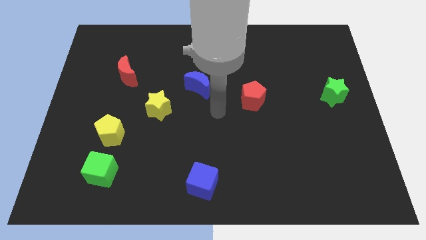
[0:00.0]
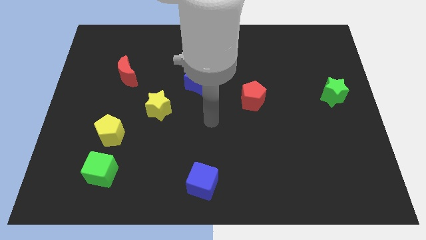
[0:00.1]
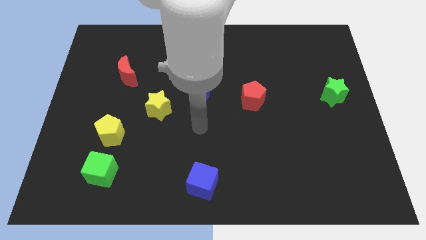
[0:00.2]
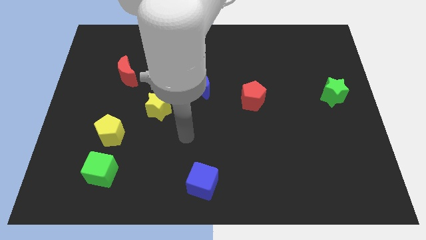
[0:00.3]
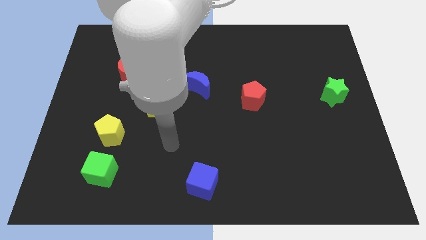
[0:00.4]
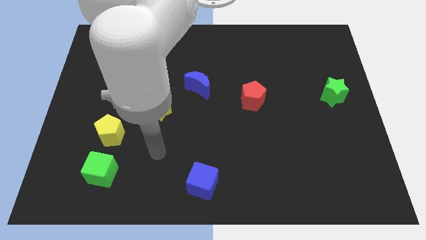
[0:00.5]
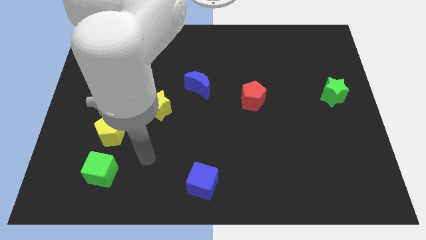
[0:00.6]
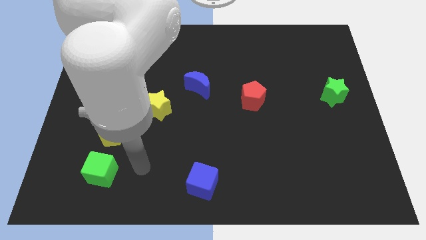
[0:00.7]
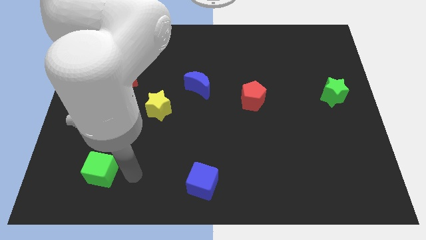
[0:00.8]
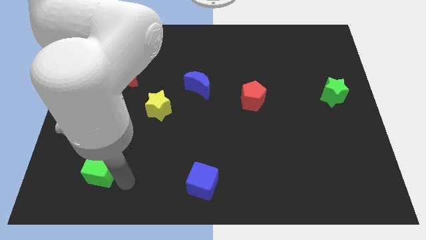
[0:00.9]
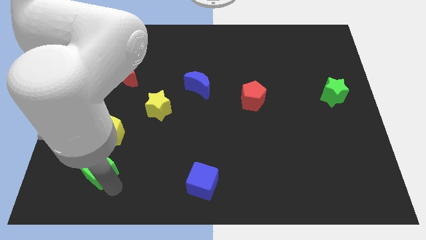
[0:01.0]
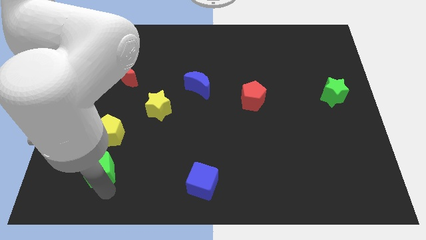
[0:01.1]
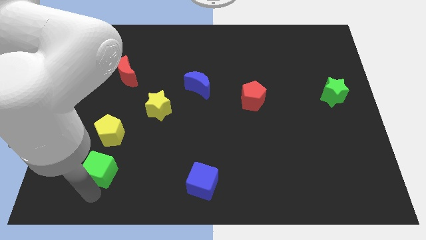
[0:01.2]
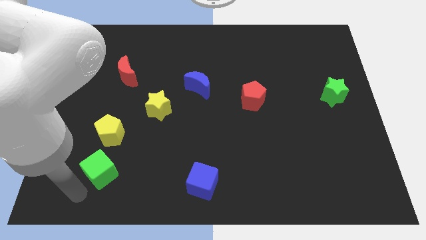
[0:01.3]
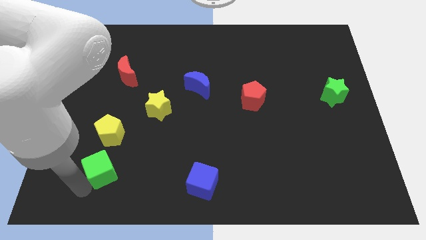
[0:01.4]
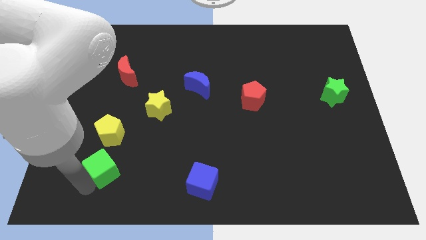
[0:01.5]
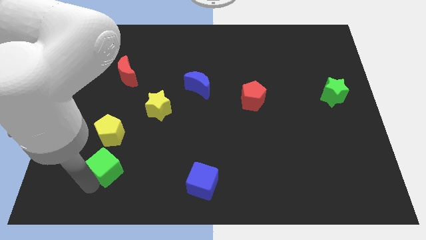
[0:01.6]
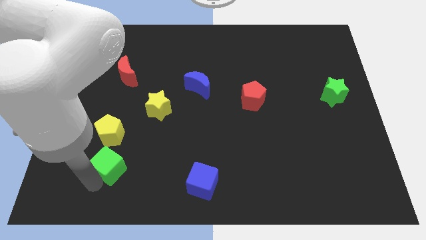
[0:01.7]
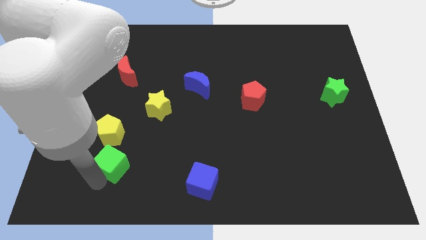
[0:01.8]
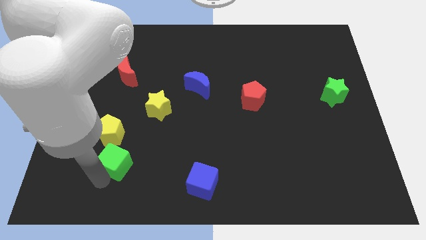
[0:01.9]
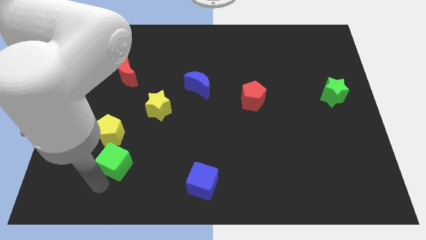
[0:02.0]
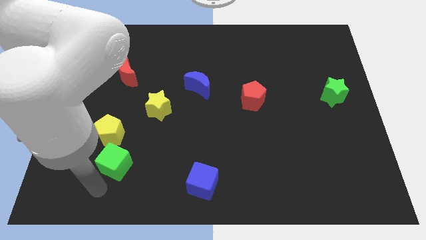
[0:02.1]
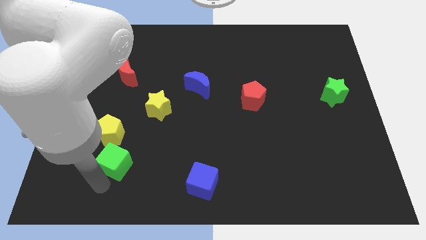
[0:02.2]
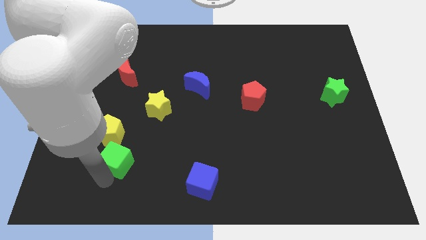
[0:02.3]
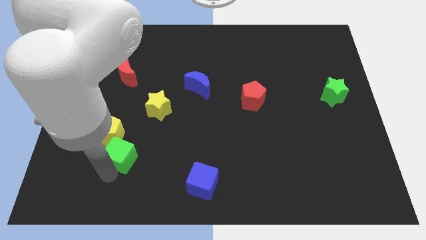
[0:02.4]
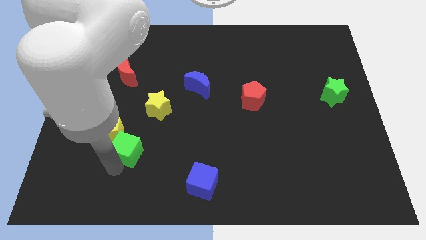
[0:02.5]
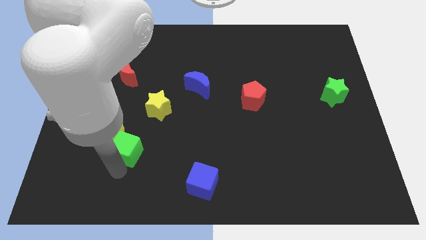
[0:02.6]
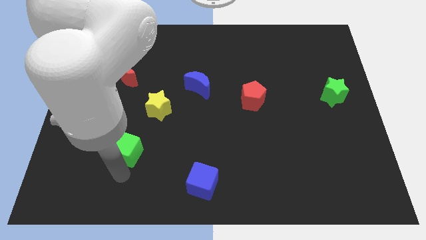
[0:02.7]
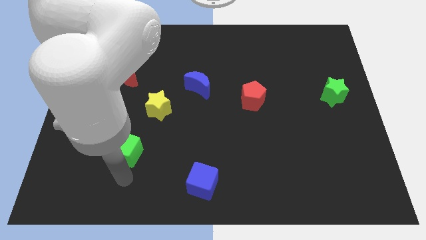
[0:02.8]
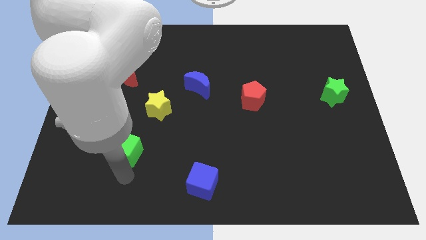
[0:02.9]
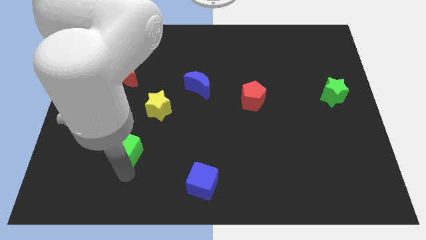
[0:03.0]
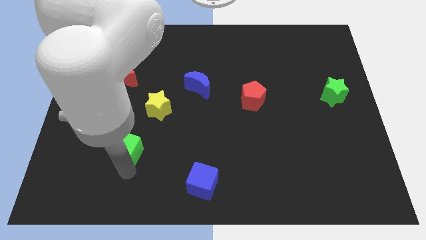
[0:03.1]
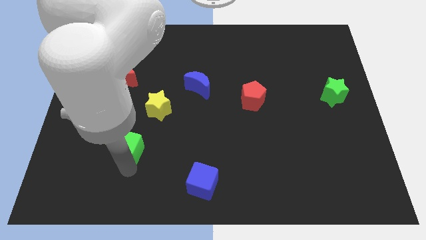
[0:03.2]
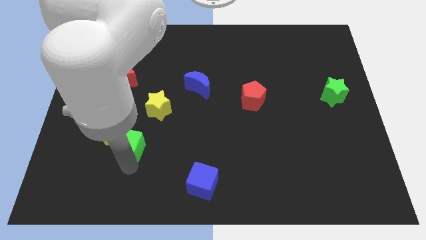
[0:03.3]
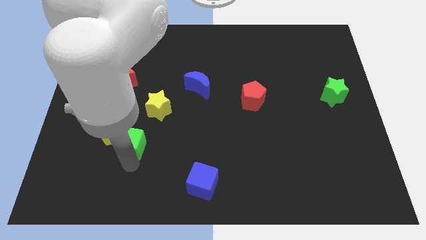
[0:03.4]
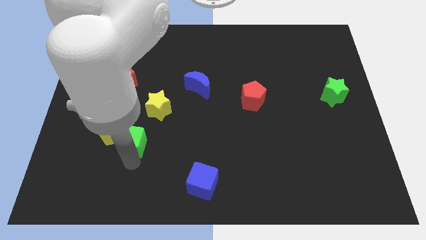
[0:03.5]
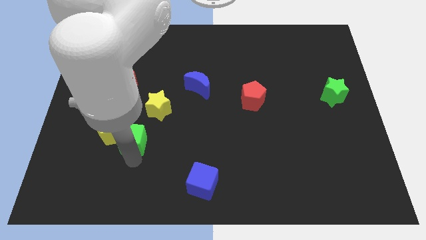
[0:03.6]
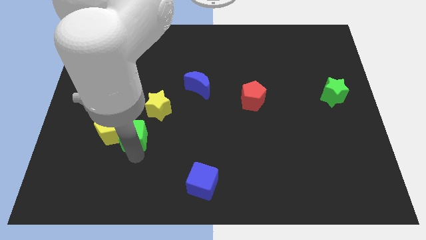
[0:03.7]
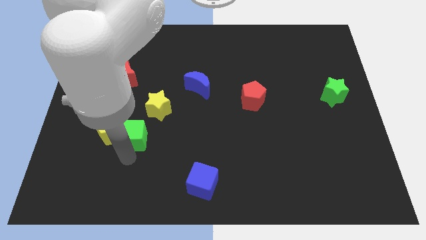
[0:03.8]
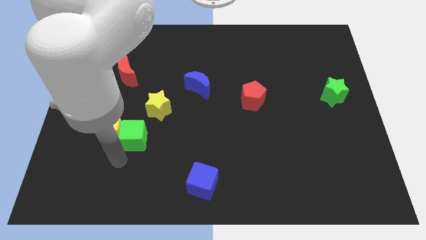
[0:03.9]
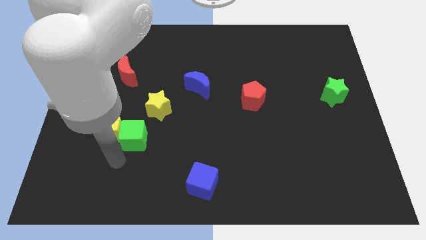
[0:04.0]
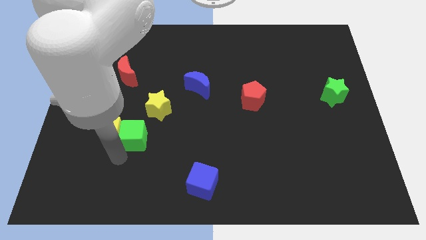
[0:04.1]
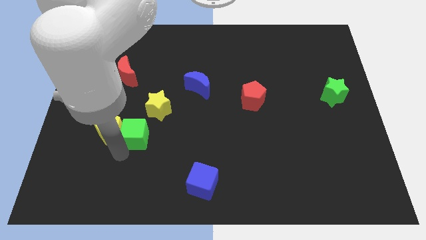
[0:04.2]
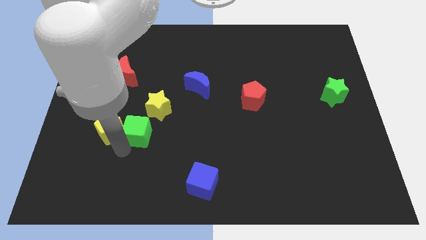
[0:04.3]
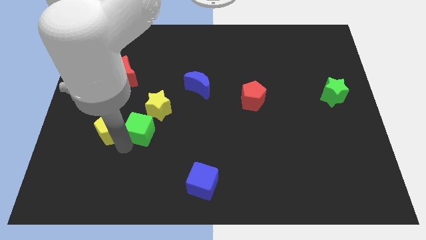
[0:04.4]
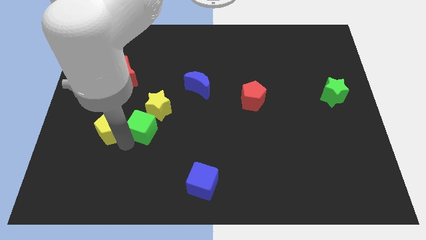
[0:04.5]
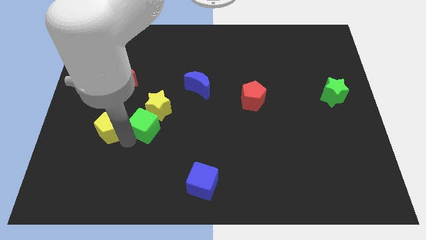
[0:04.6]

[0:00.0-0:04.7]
put the green cube towards the yellow star

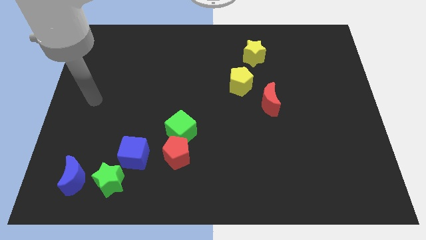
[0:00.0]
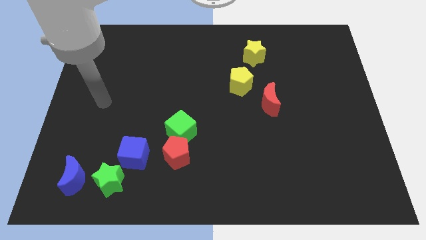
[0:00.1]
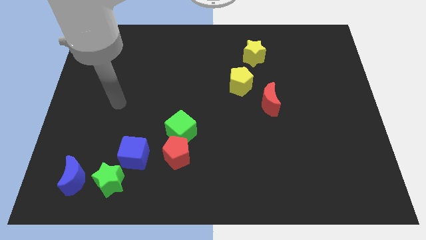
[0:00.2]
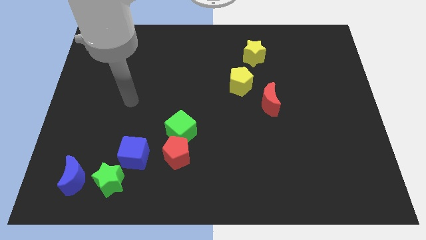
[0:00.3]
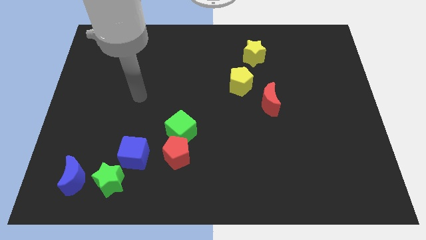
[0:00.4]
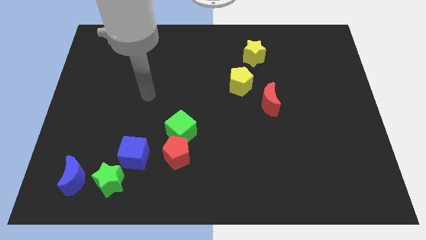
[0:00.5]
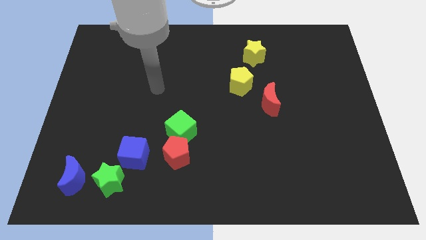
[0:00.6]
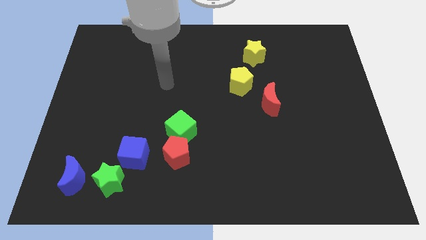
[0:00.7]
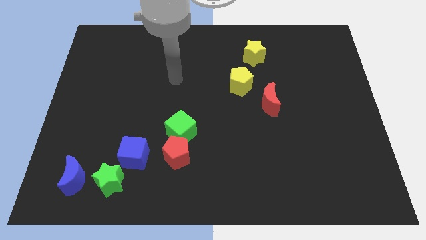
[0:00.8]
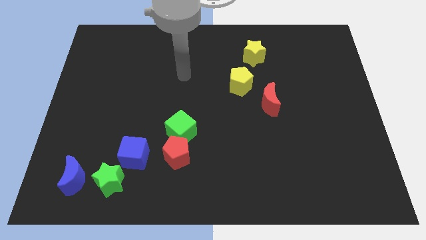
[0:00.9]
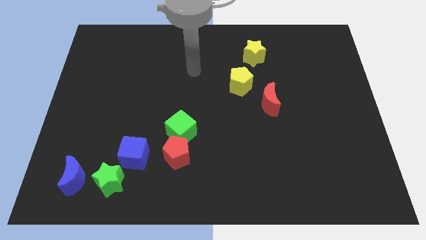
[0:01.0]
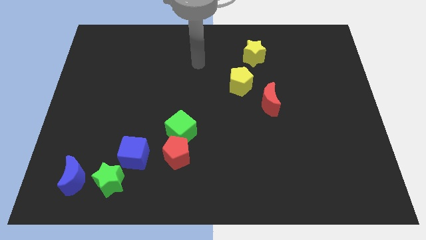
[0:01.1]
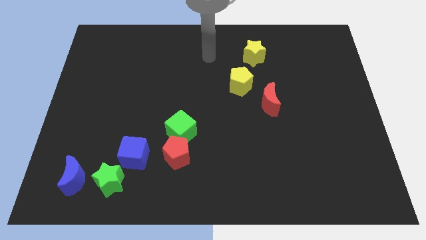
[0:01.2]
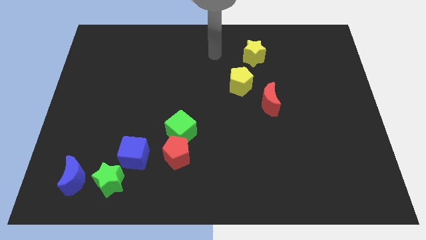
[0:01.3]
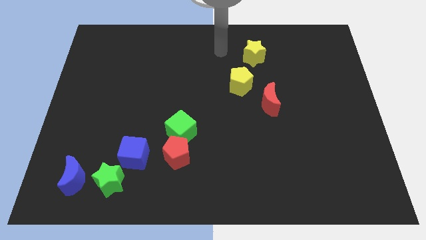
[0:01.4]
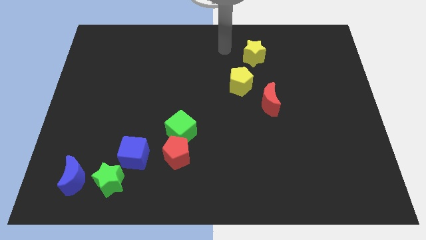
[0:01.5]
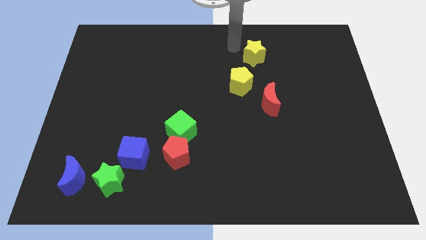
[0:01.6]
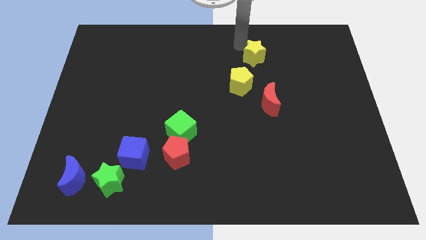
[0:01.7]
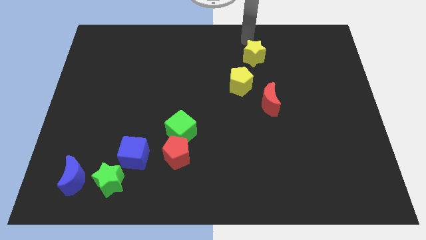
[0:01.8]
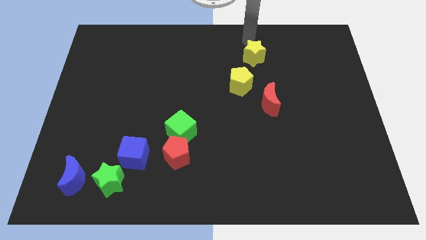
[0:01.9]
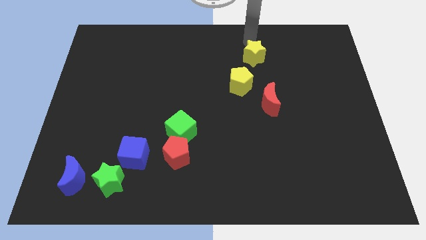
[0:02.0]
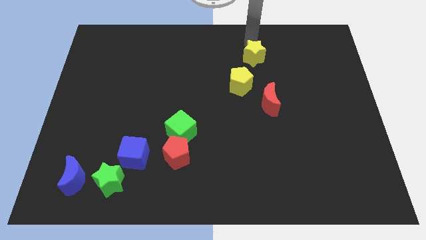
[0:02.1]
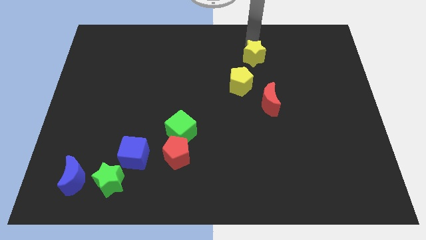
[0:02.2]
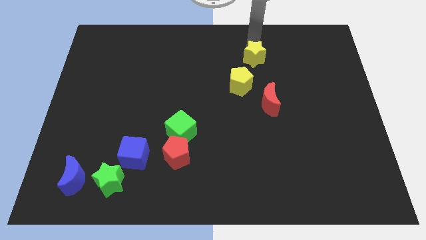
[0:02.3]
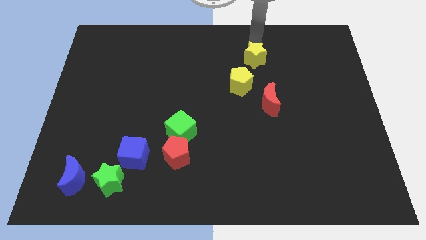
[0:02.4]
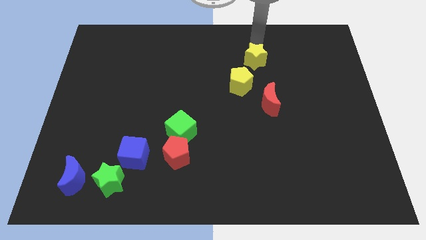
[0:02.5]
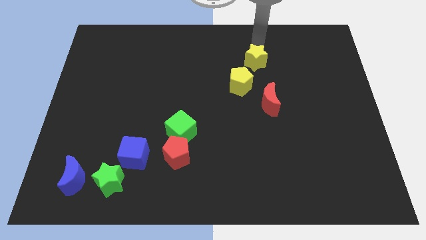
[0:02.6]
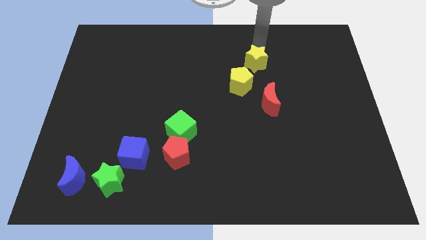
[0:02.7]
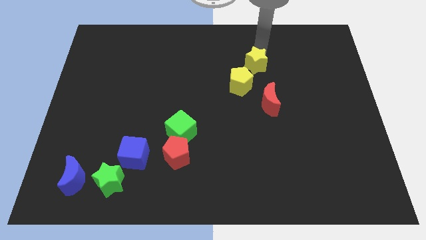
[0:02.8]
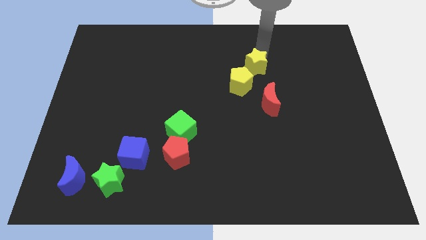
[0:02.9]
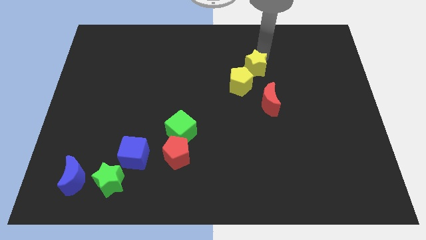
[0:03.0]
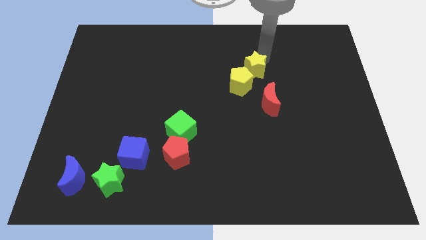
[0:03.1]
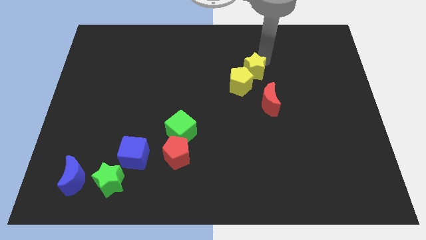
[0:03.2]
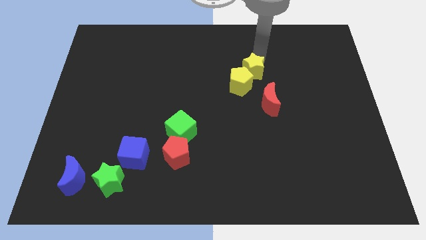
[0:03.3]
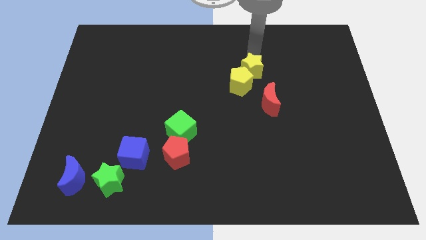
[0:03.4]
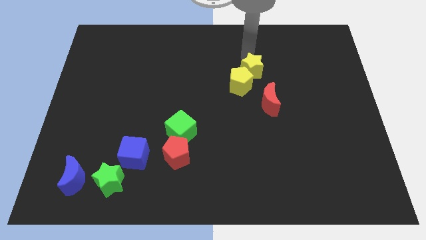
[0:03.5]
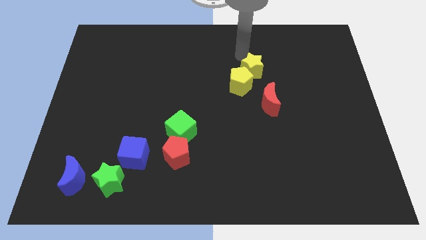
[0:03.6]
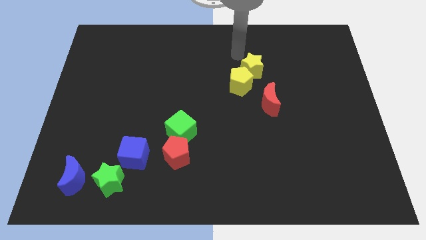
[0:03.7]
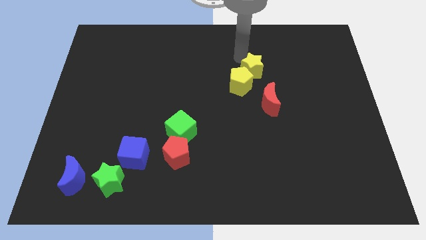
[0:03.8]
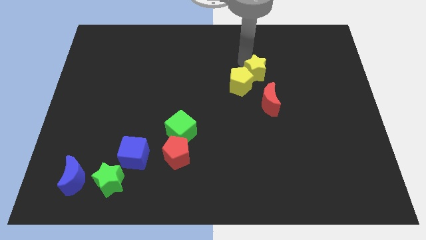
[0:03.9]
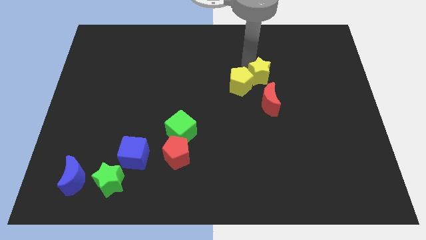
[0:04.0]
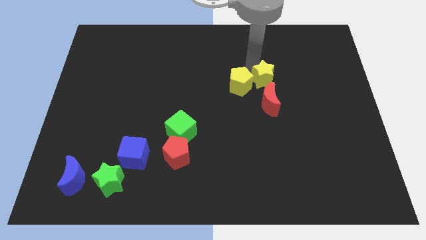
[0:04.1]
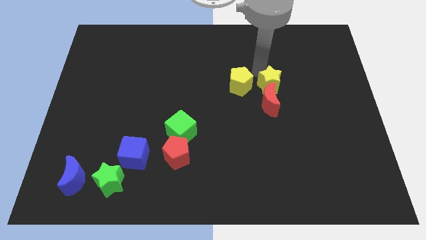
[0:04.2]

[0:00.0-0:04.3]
push the yellow star towards the red moon
